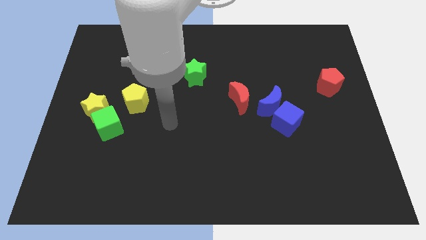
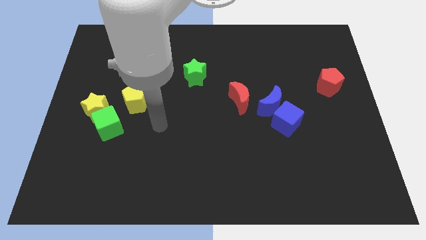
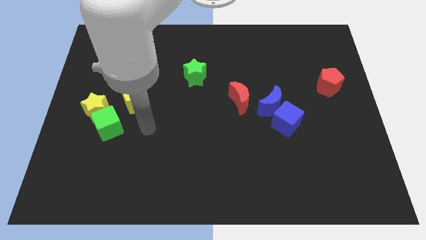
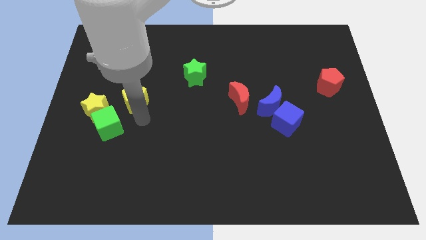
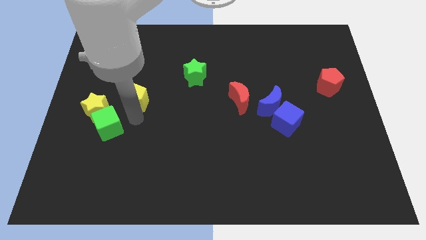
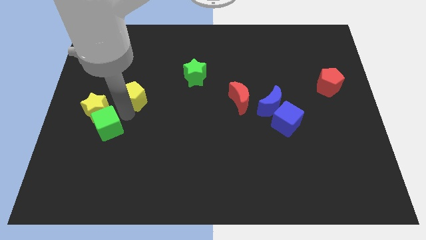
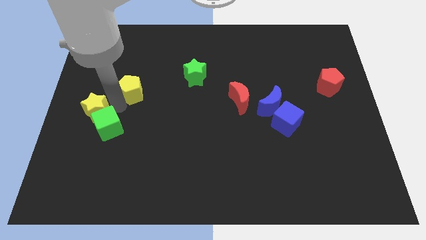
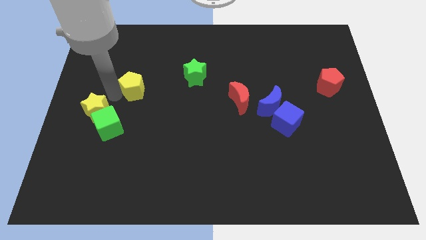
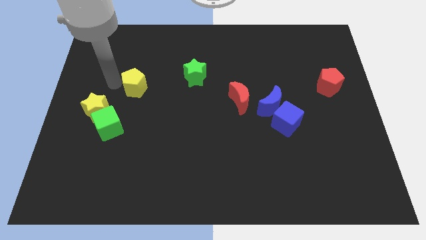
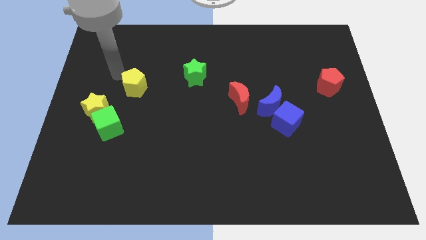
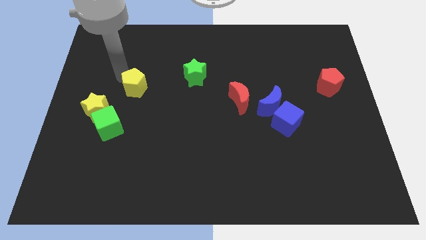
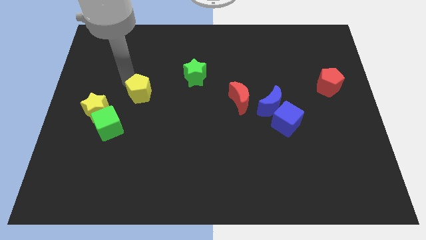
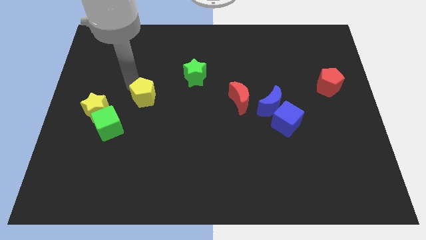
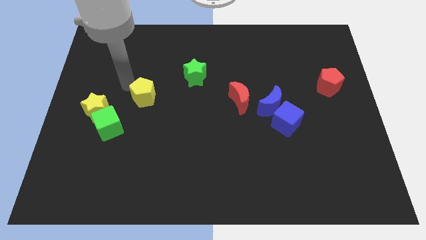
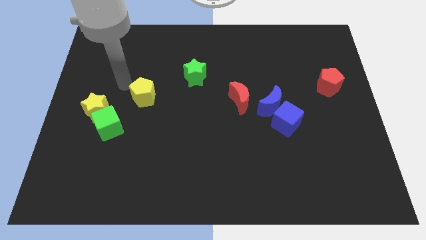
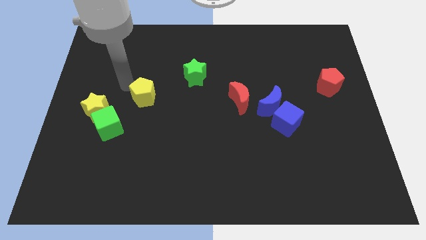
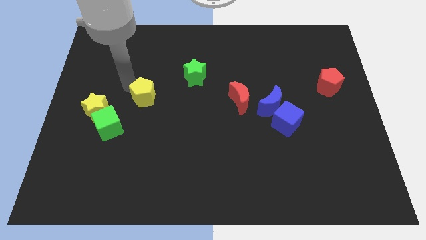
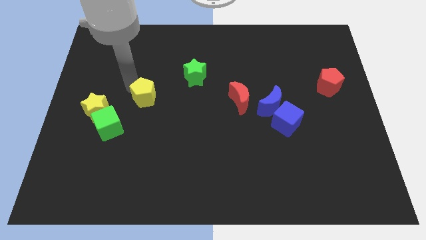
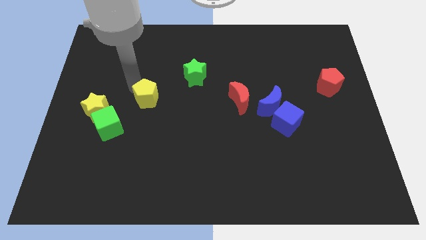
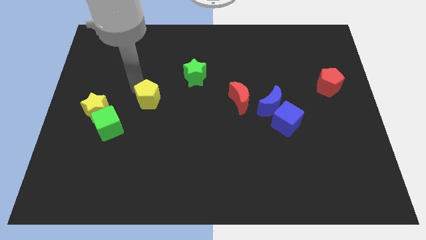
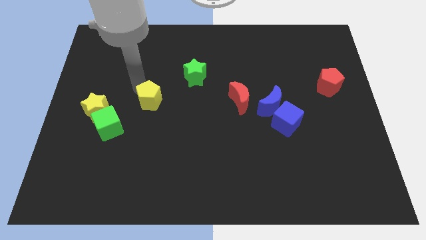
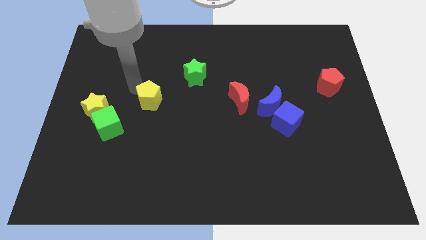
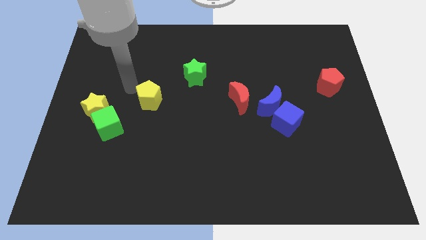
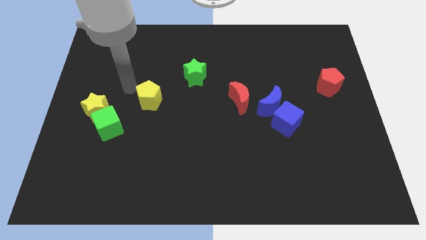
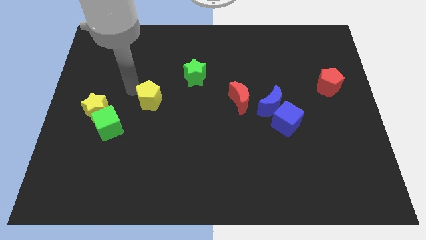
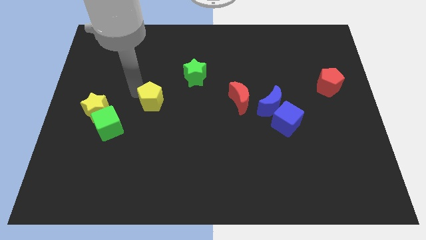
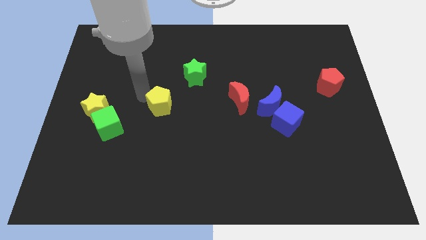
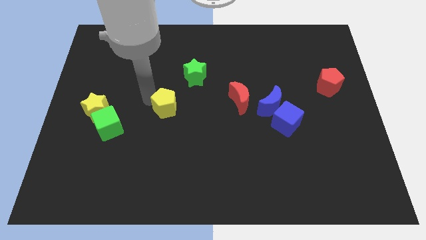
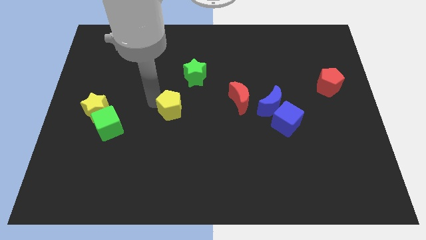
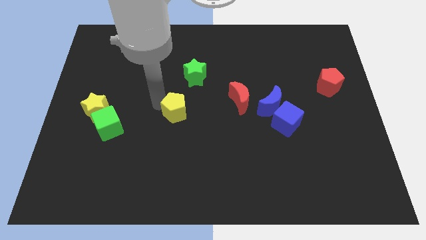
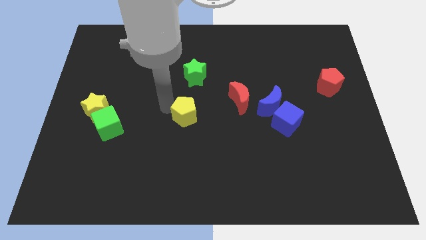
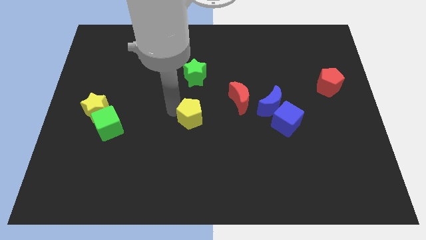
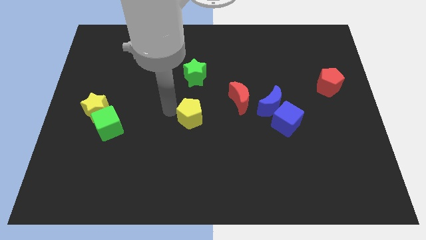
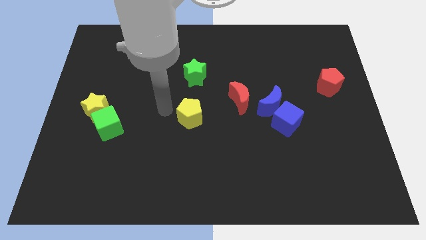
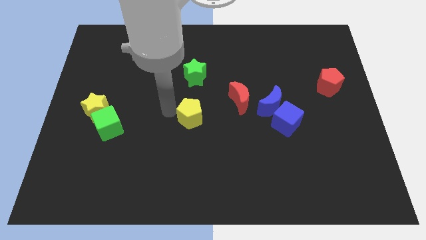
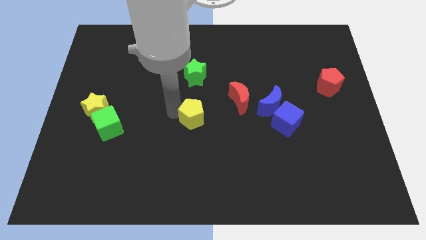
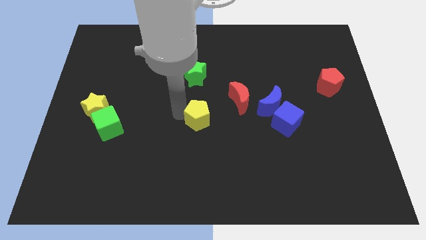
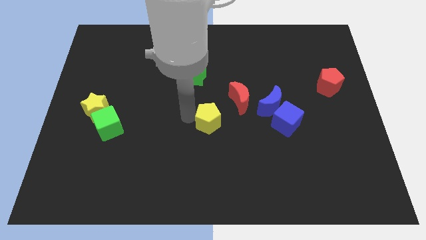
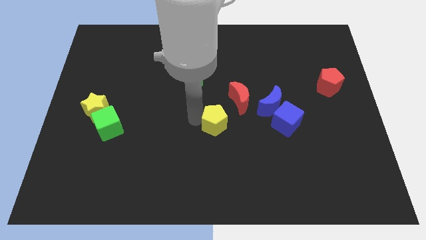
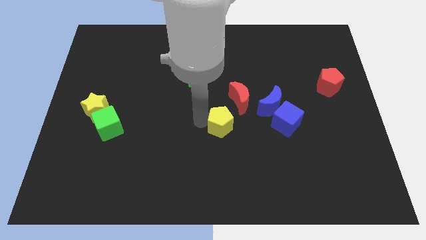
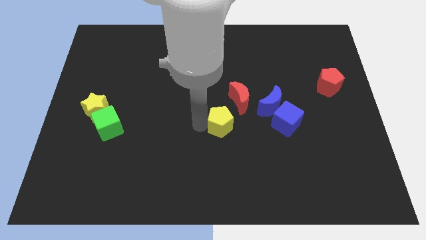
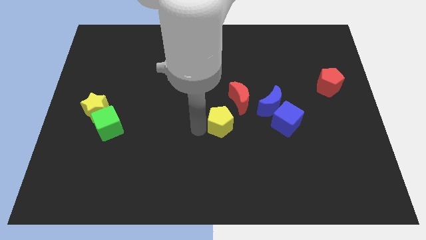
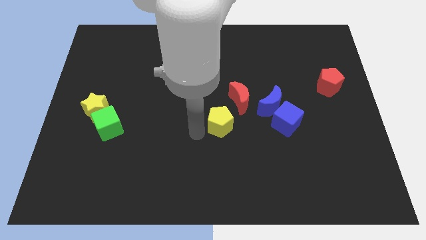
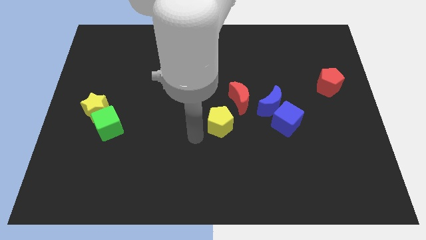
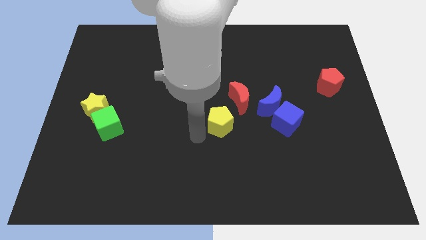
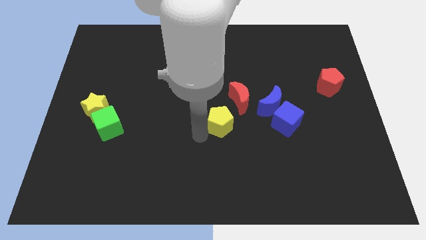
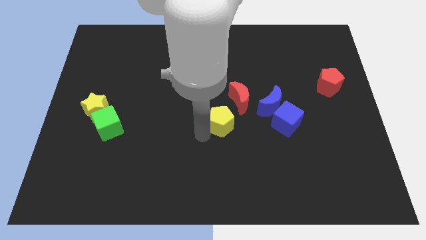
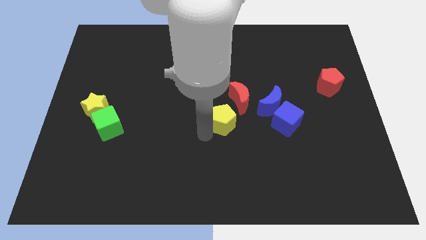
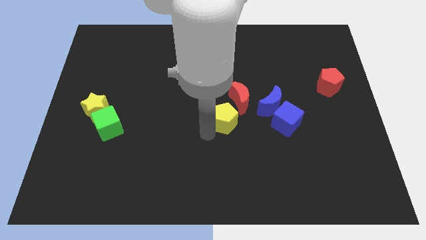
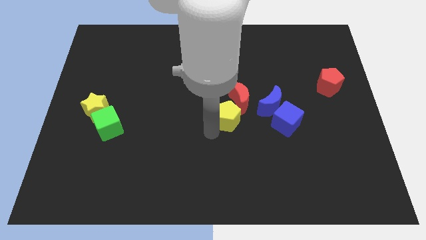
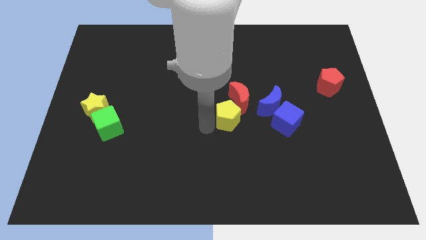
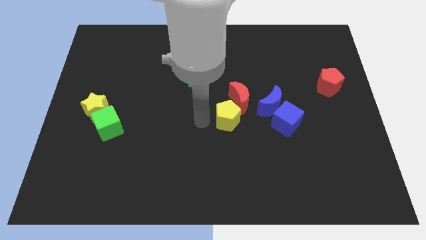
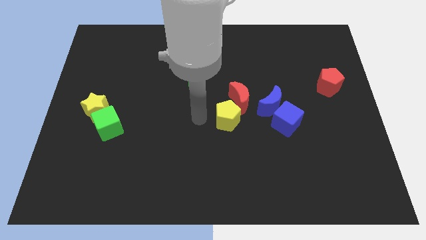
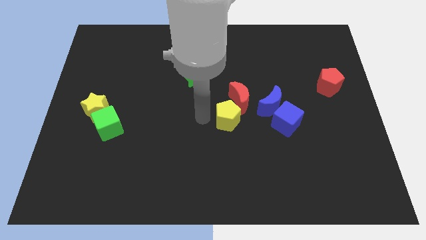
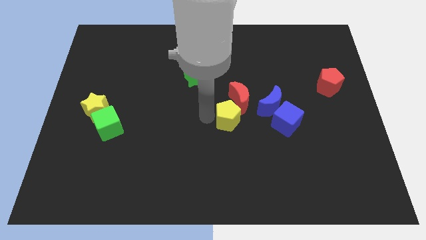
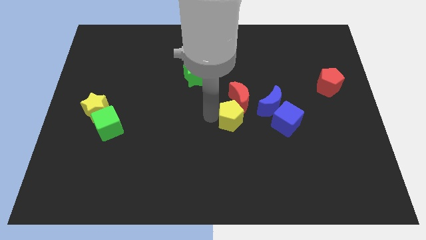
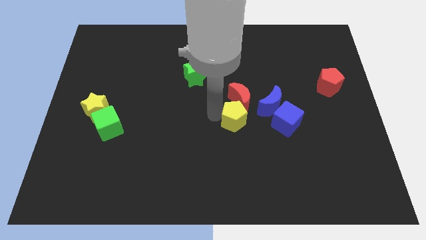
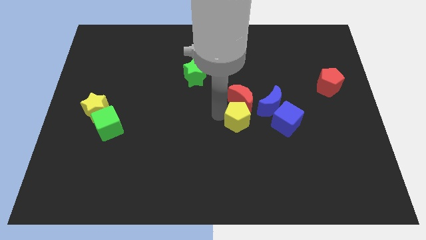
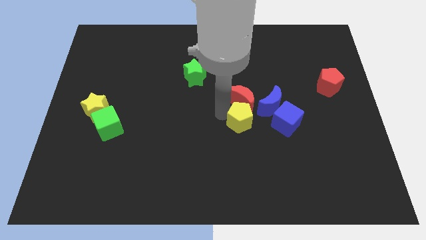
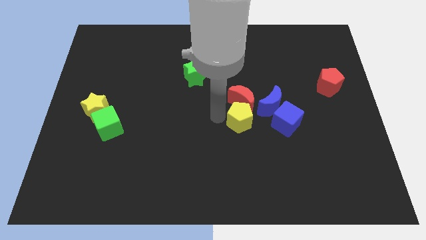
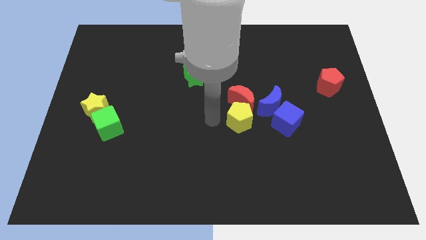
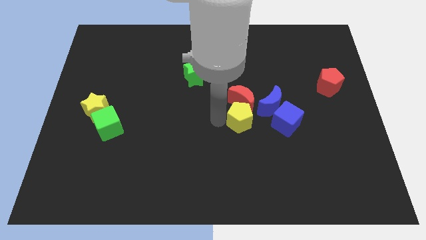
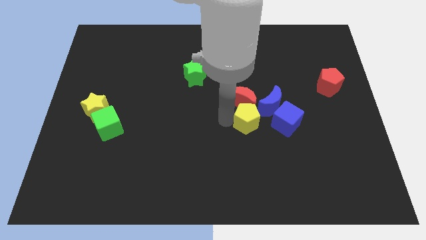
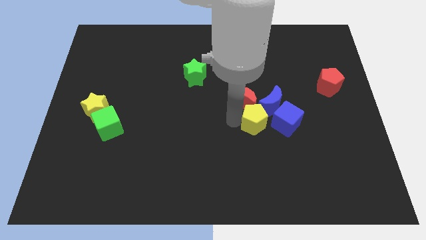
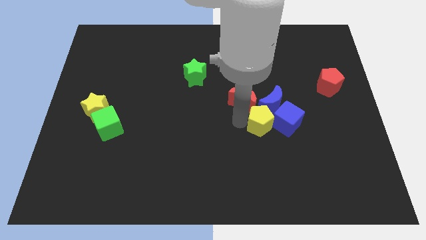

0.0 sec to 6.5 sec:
slide the yellow pentagon close to the blue cube

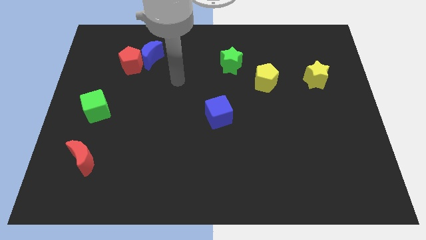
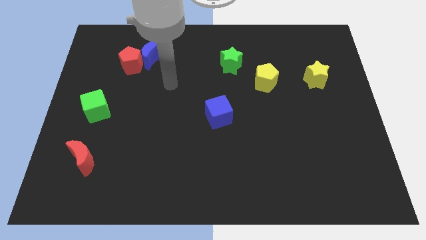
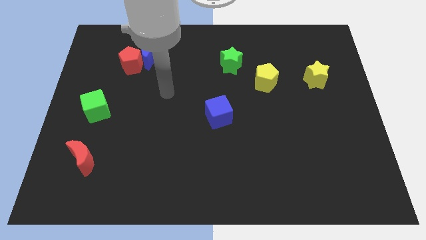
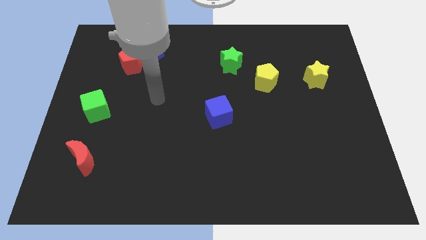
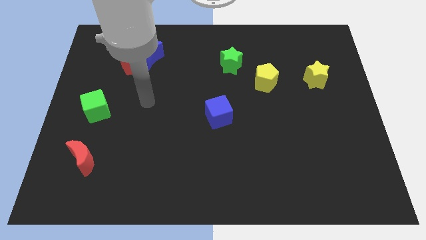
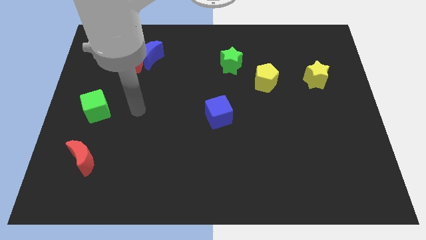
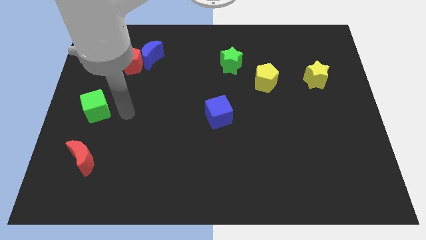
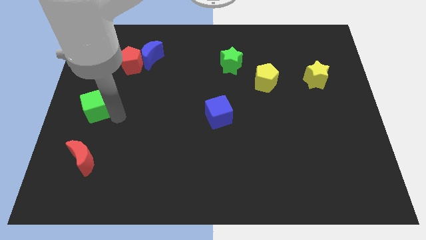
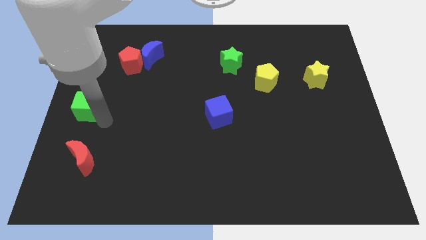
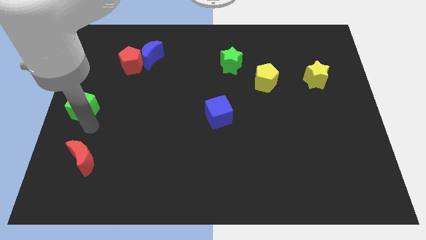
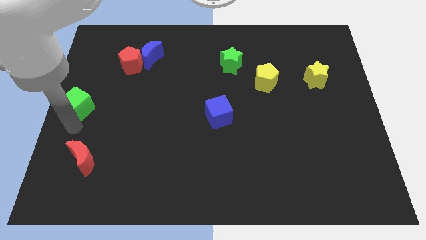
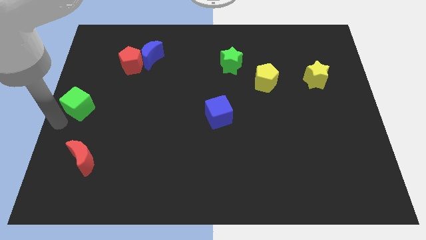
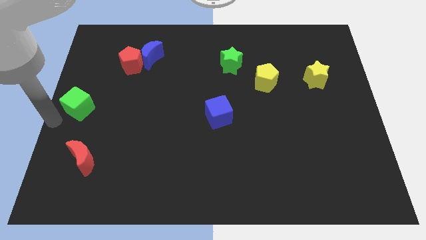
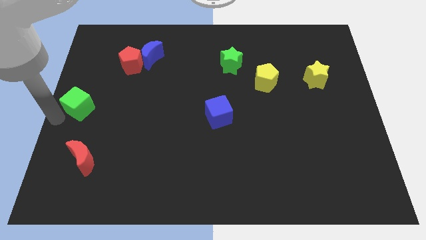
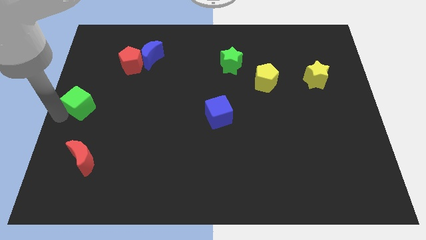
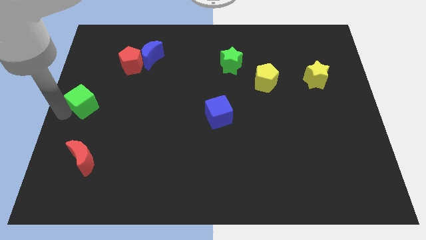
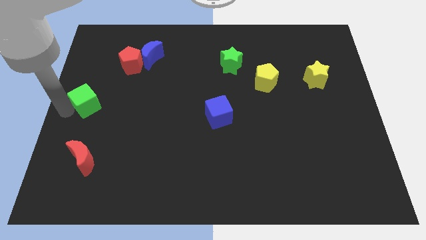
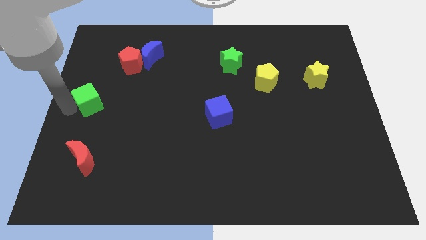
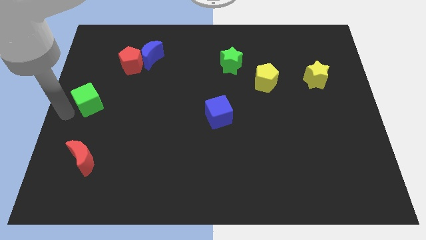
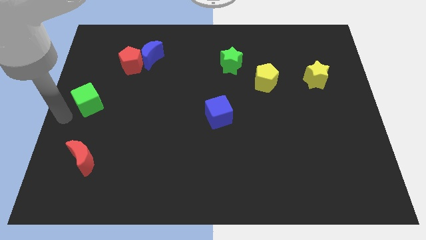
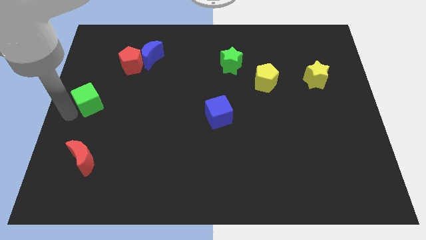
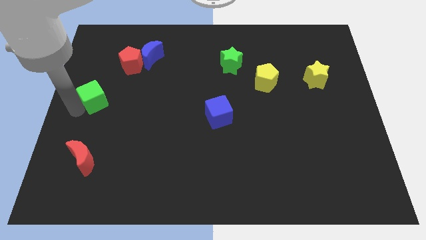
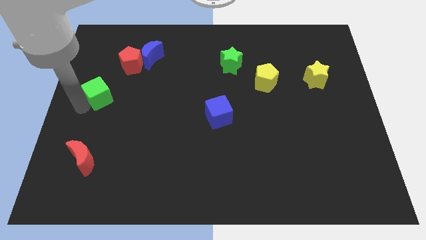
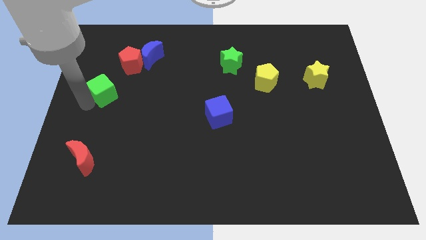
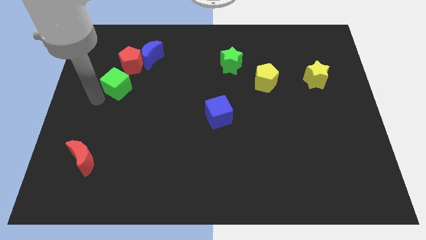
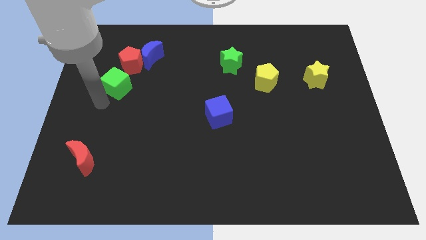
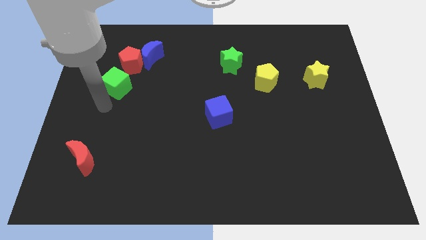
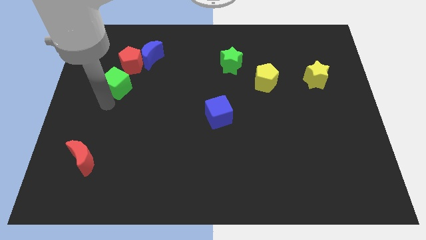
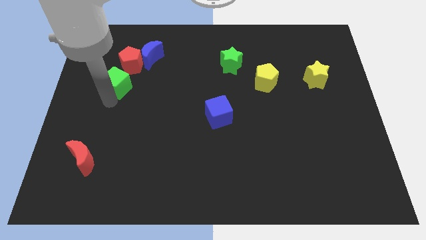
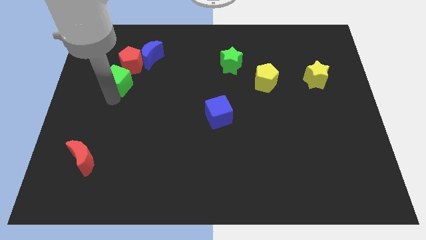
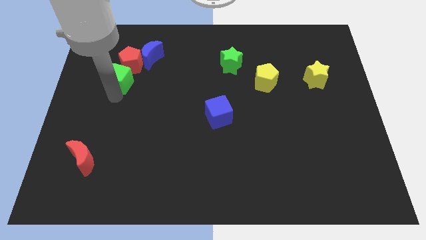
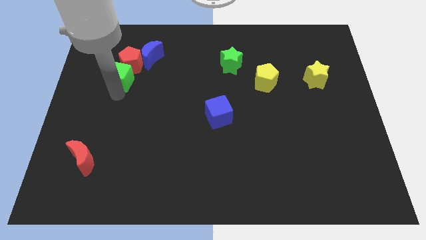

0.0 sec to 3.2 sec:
push the green cube close to the red pentagon
